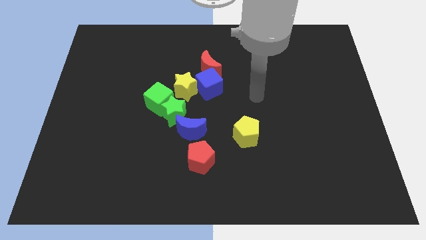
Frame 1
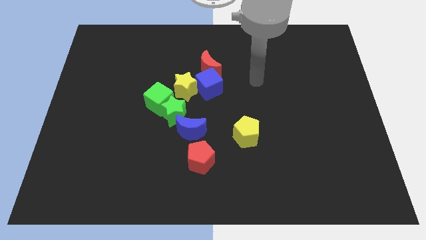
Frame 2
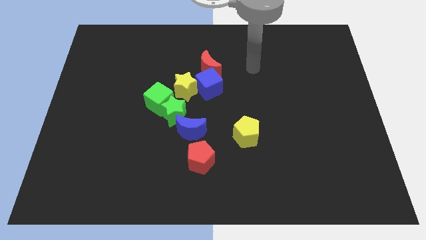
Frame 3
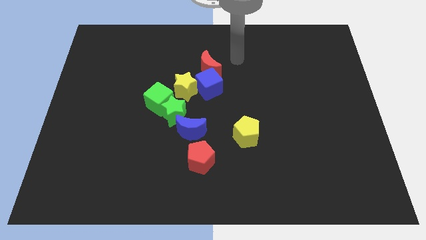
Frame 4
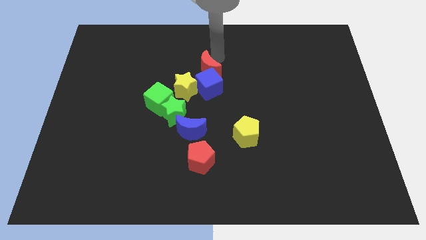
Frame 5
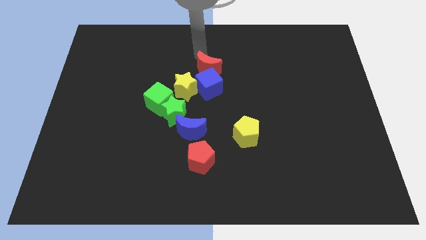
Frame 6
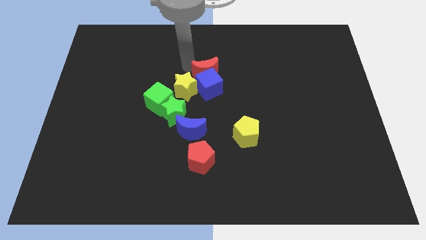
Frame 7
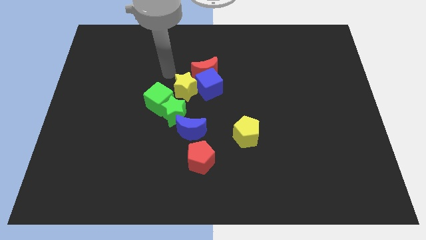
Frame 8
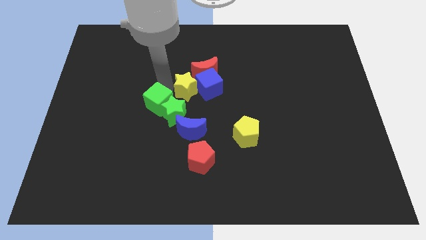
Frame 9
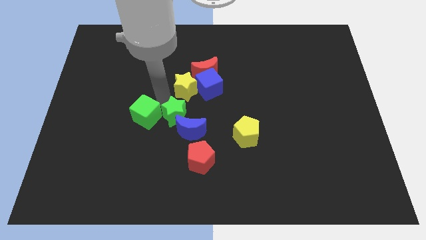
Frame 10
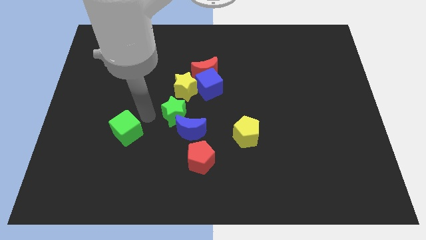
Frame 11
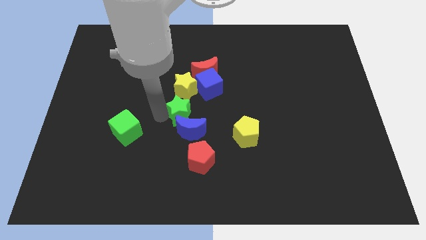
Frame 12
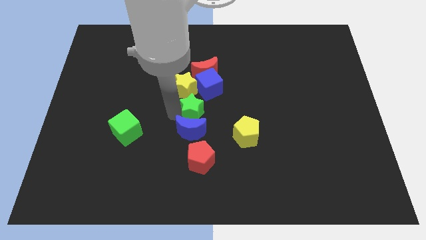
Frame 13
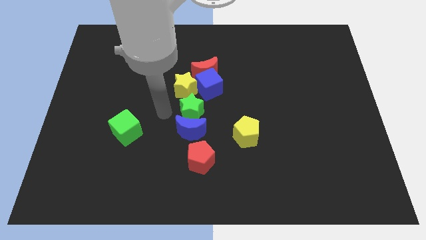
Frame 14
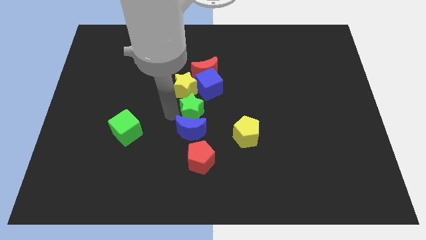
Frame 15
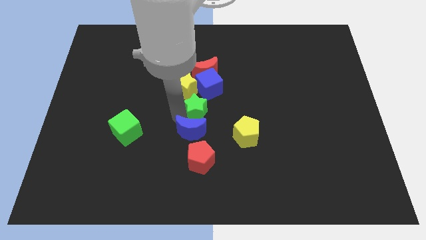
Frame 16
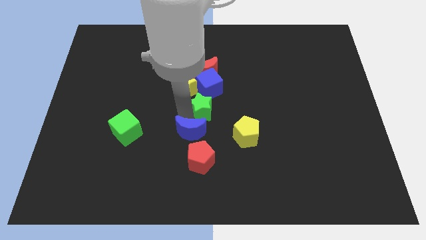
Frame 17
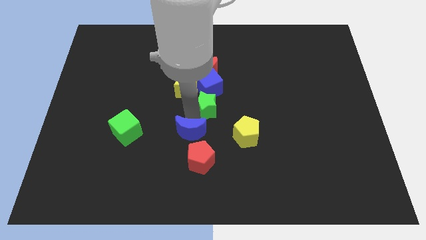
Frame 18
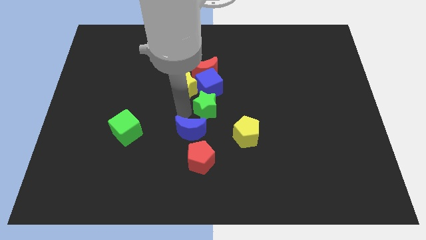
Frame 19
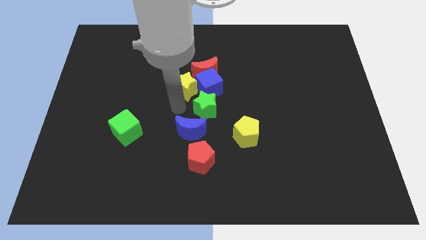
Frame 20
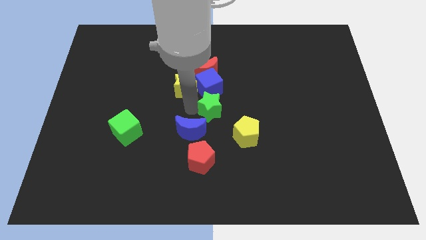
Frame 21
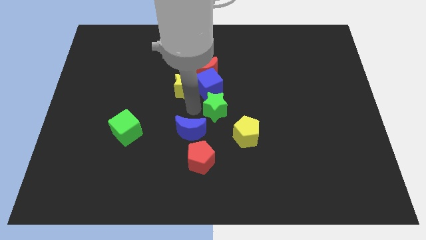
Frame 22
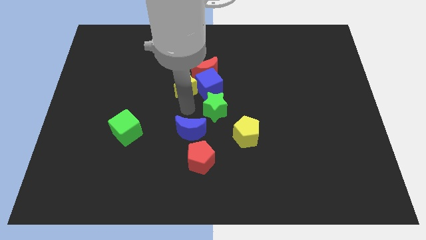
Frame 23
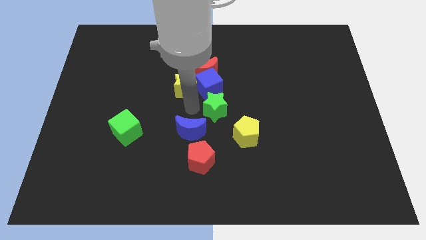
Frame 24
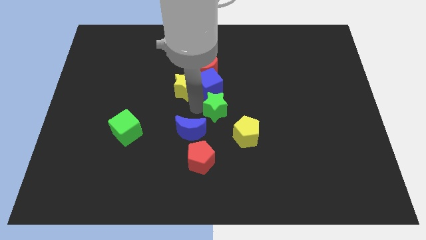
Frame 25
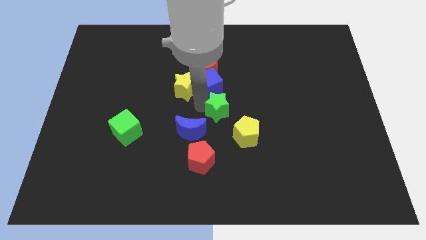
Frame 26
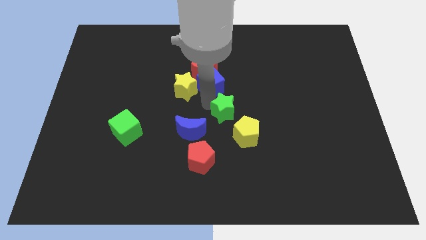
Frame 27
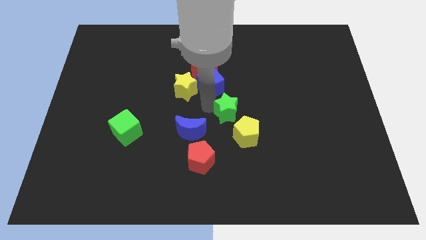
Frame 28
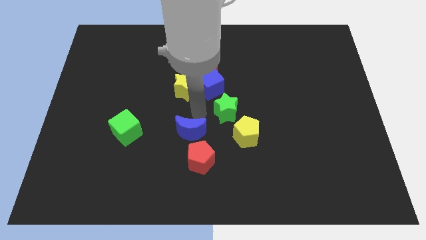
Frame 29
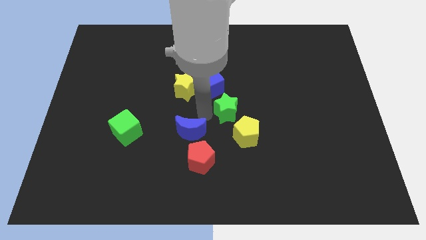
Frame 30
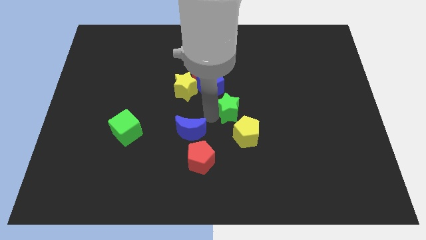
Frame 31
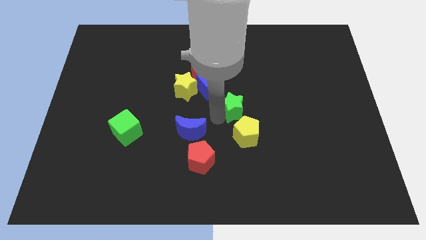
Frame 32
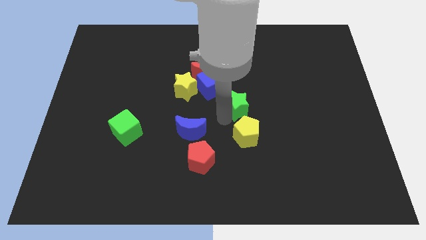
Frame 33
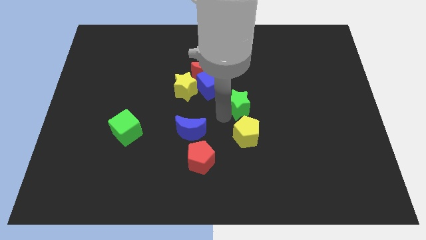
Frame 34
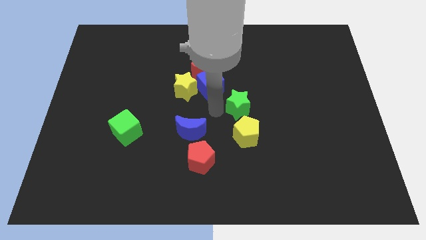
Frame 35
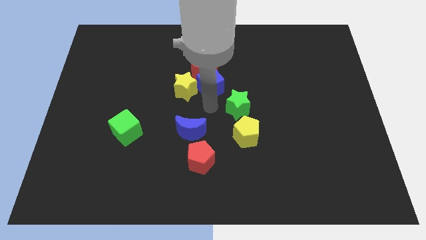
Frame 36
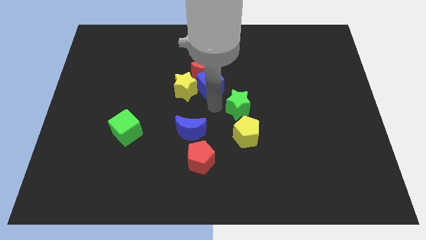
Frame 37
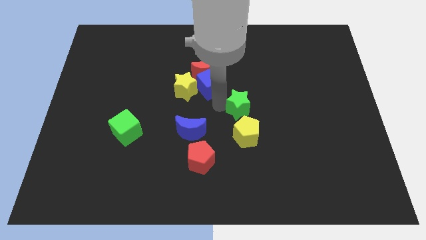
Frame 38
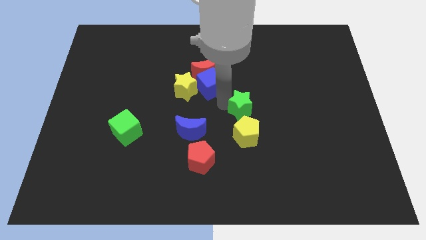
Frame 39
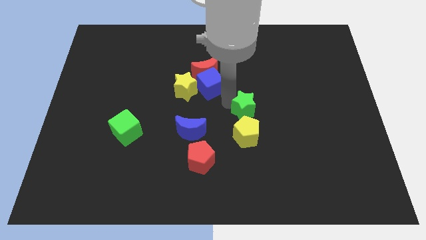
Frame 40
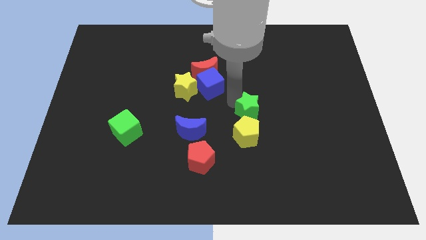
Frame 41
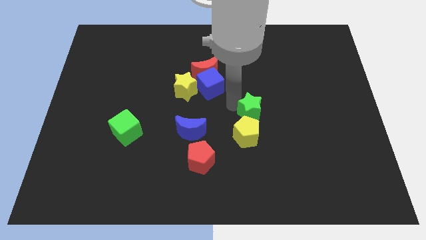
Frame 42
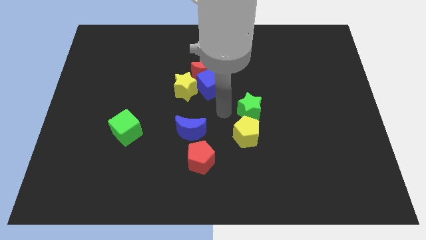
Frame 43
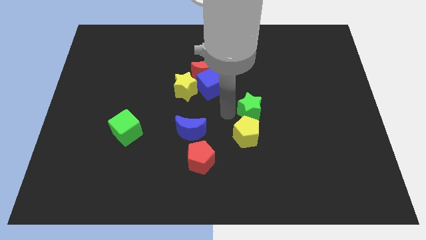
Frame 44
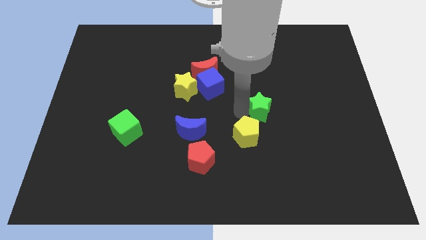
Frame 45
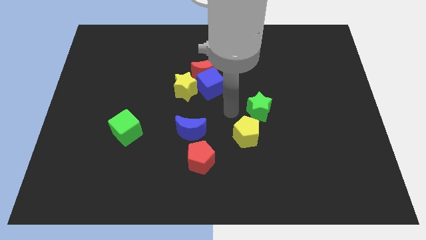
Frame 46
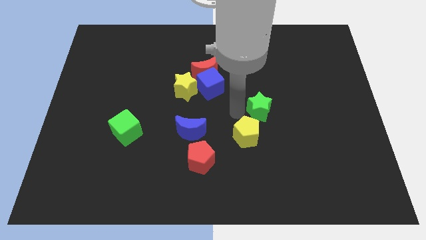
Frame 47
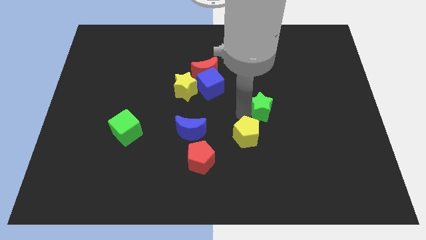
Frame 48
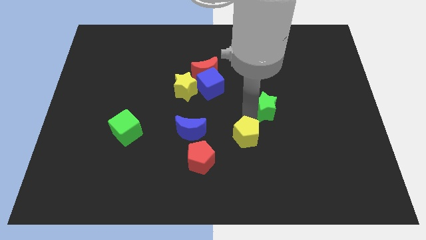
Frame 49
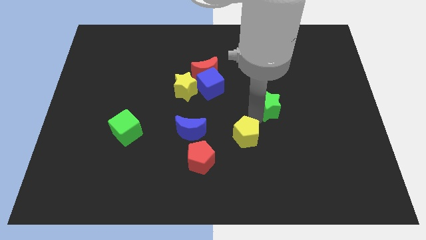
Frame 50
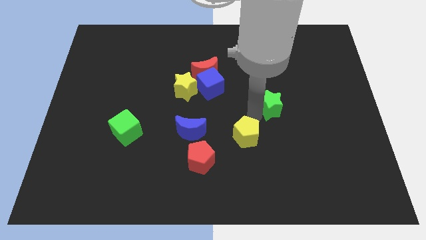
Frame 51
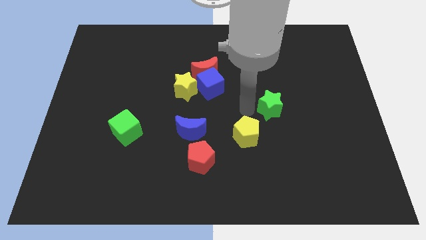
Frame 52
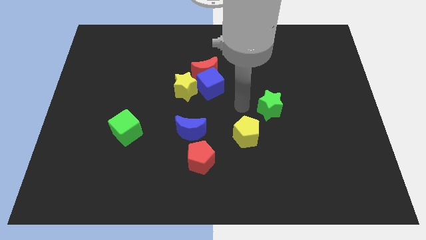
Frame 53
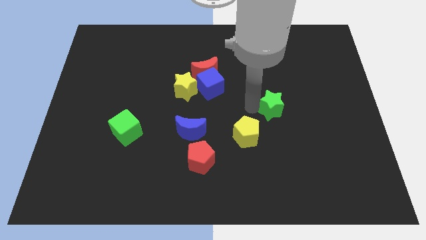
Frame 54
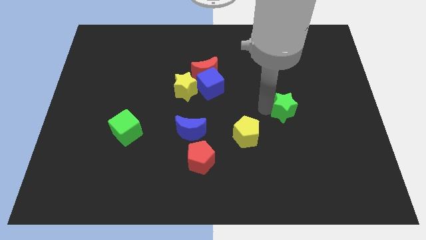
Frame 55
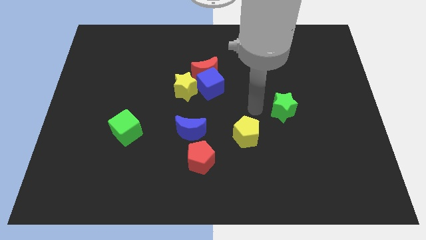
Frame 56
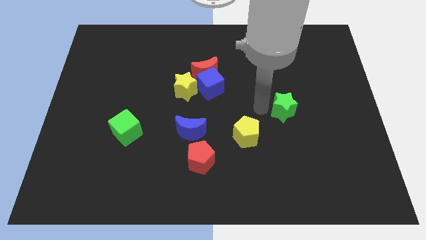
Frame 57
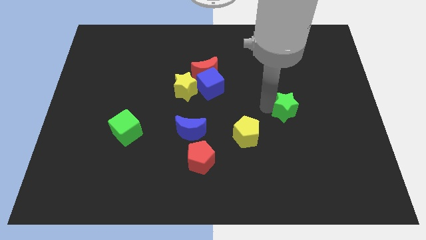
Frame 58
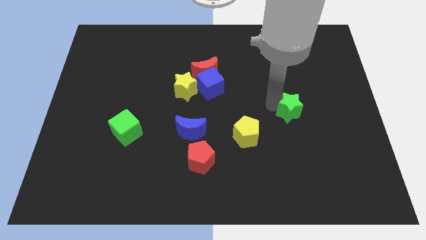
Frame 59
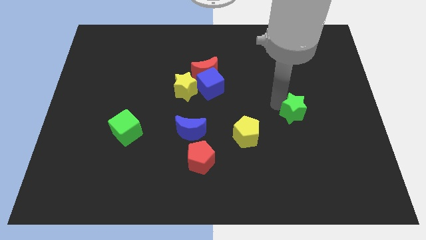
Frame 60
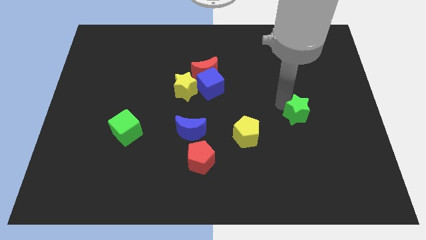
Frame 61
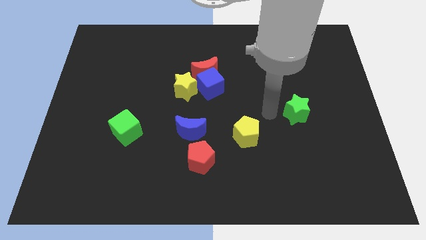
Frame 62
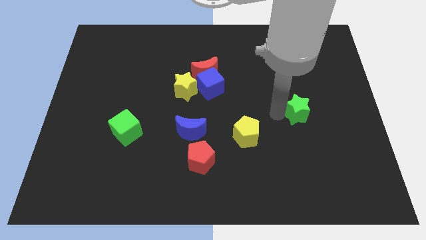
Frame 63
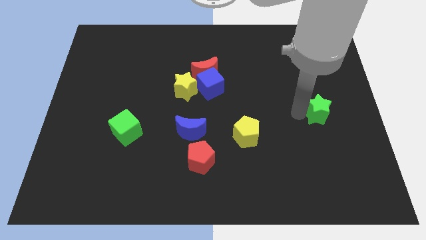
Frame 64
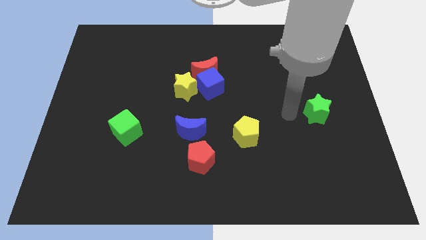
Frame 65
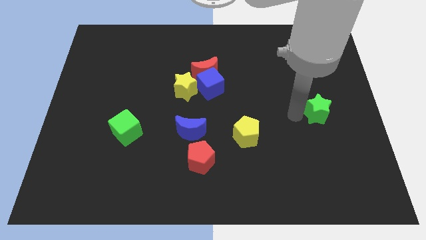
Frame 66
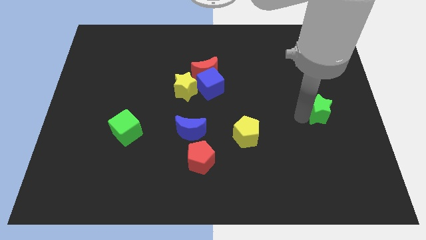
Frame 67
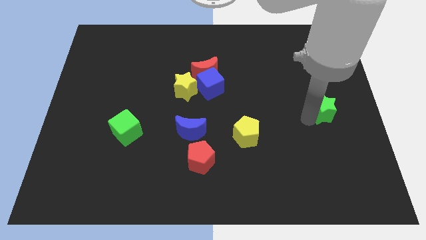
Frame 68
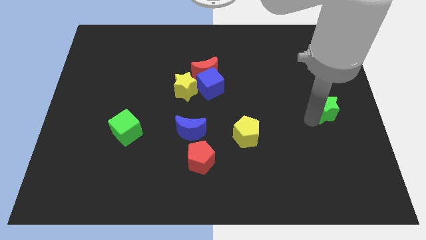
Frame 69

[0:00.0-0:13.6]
push the green star to the center right
